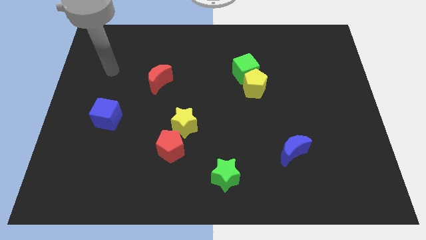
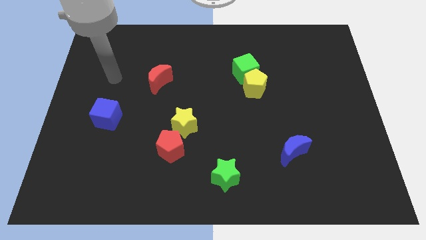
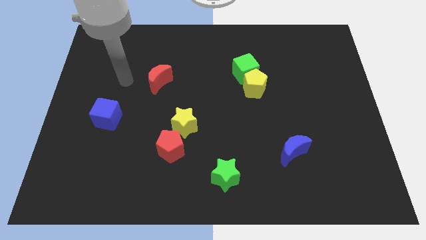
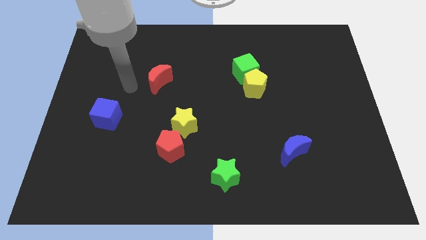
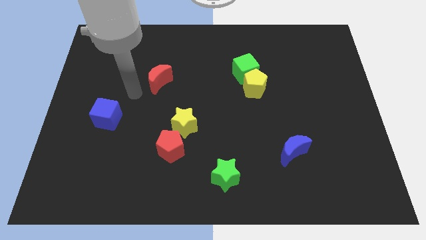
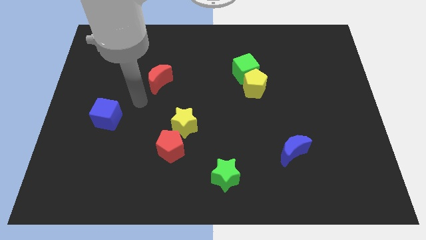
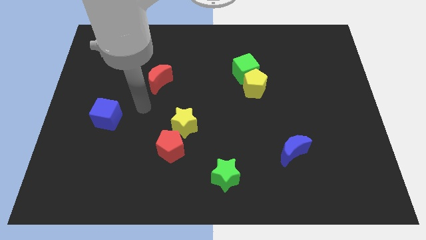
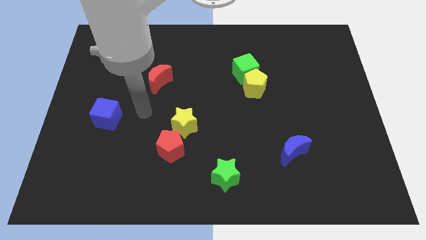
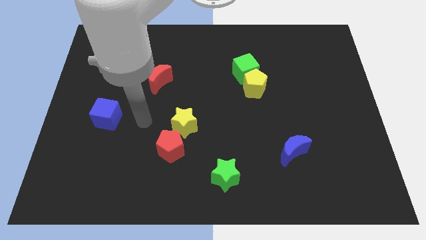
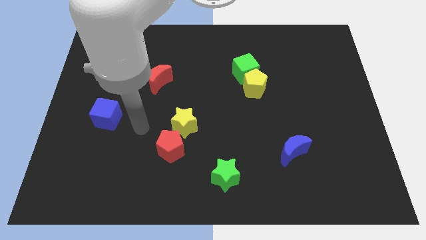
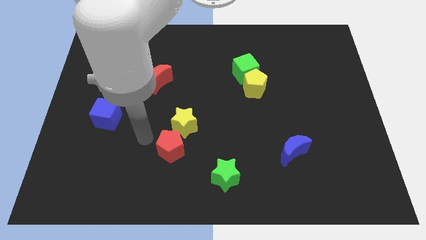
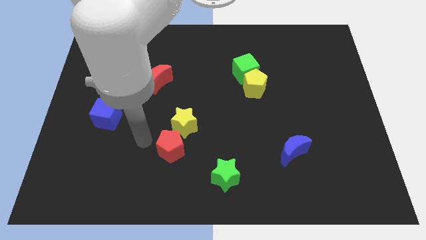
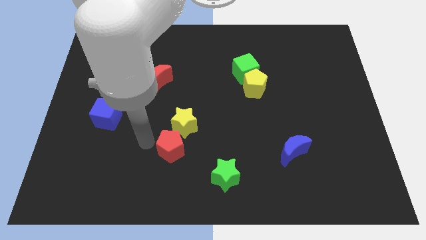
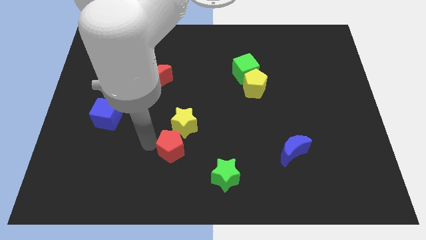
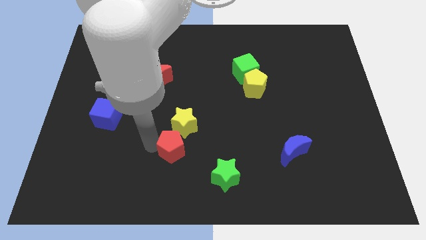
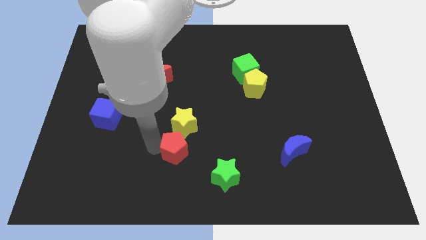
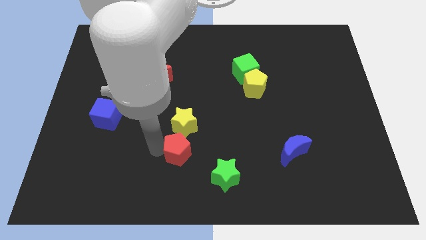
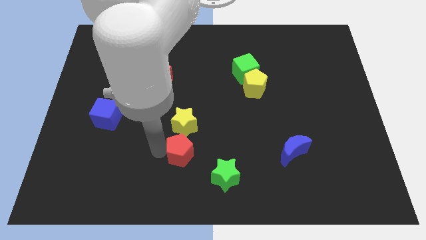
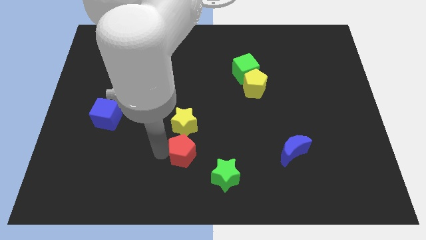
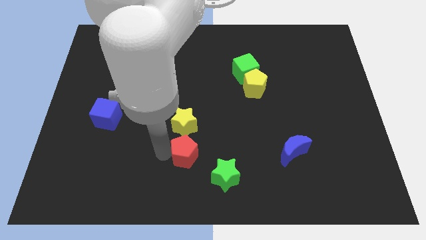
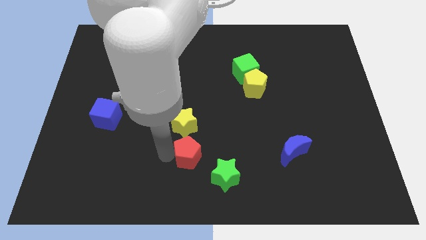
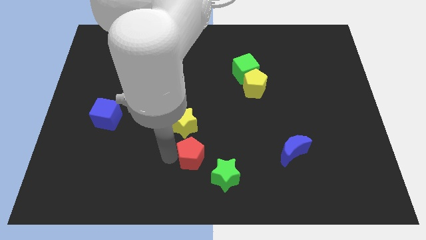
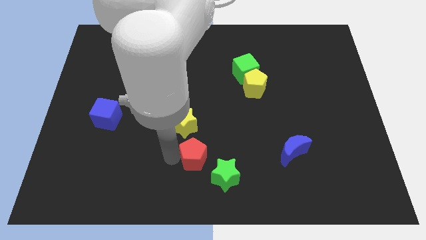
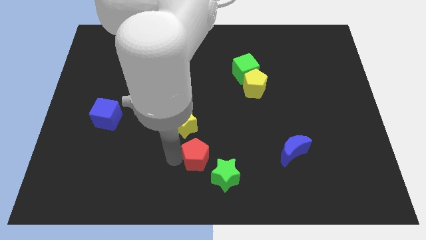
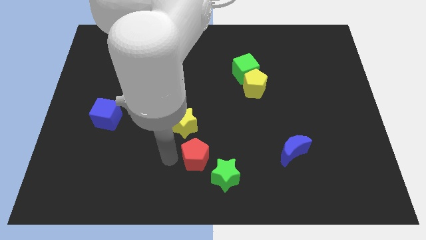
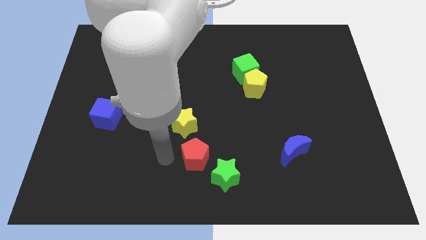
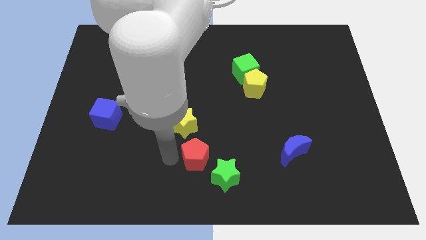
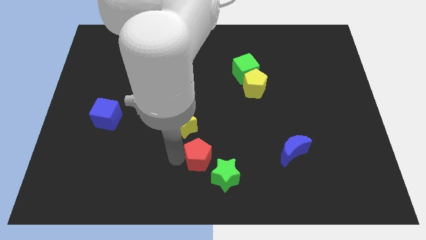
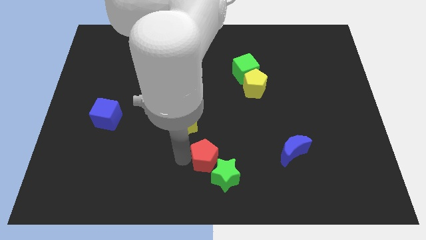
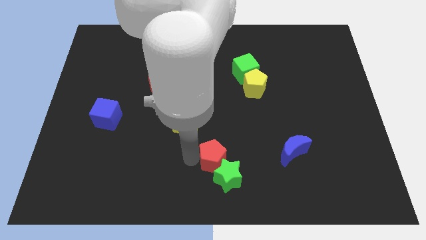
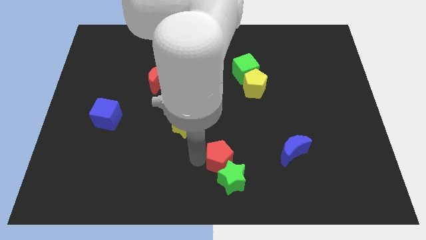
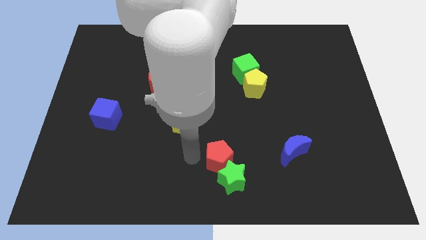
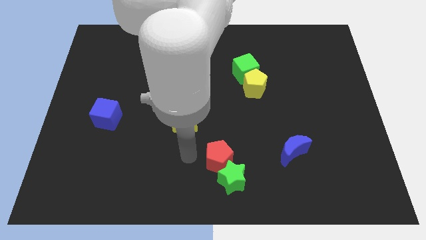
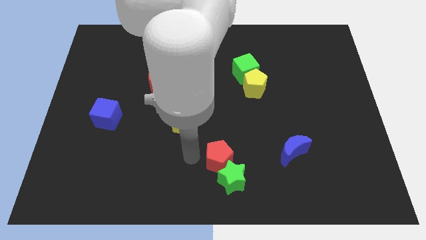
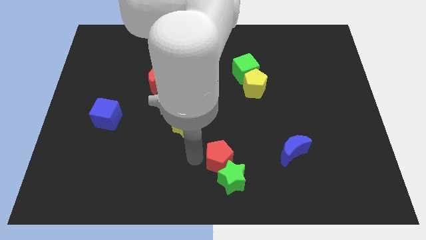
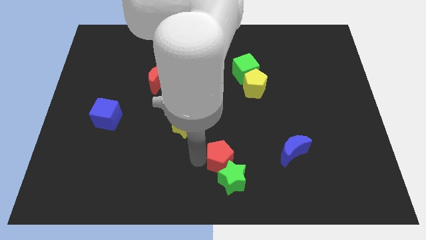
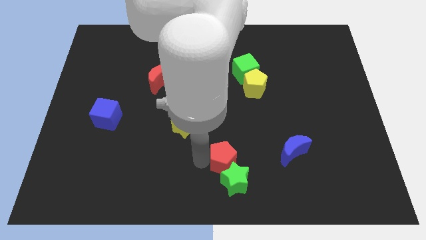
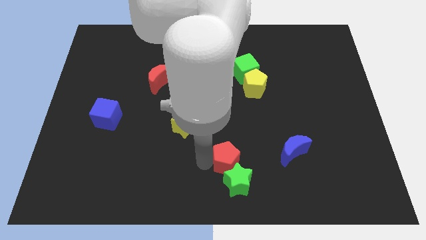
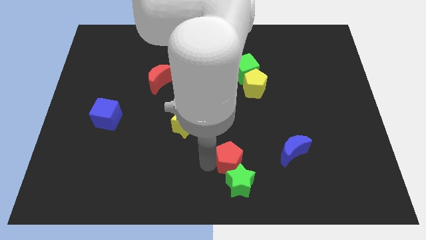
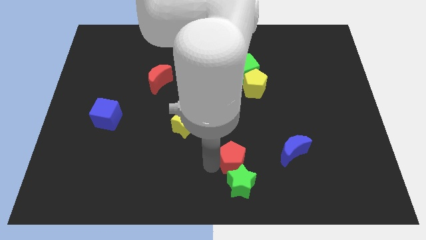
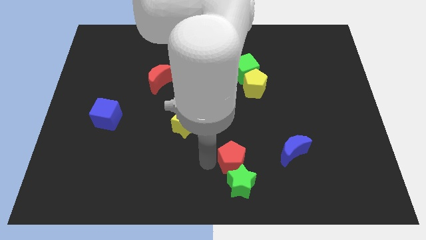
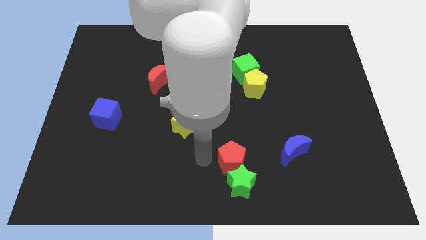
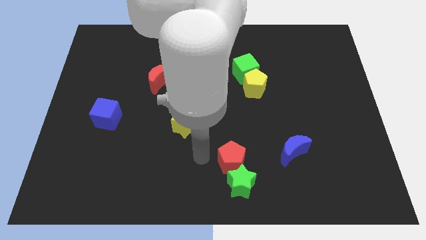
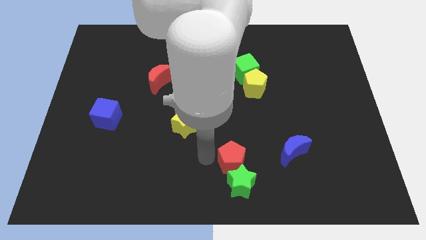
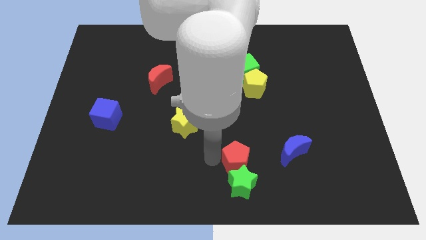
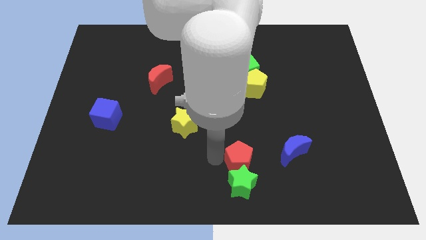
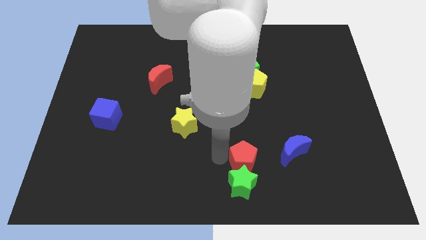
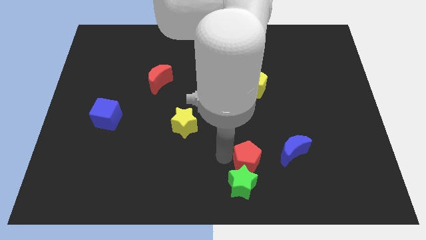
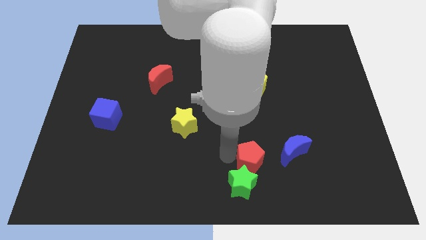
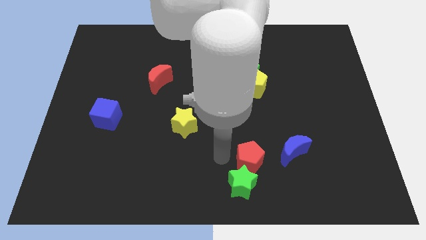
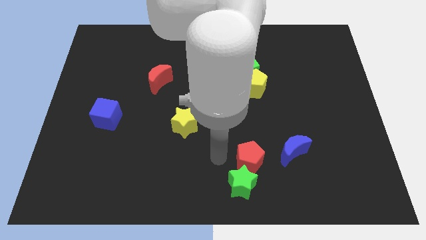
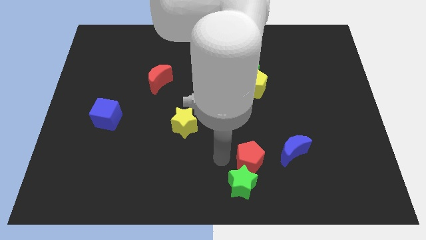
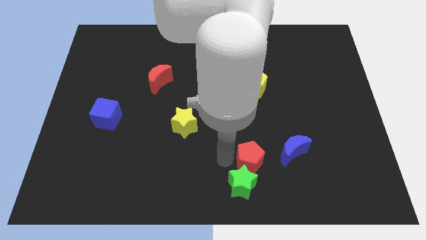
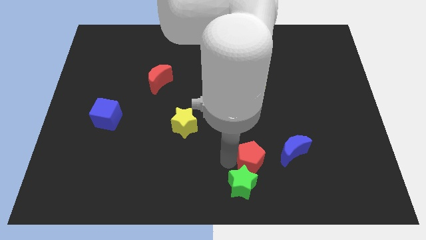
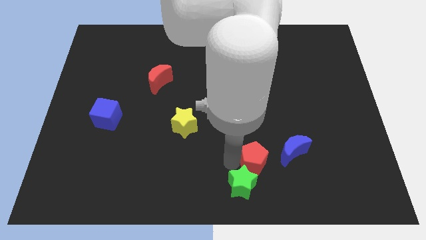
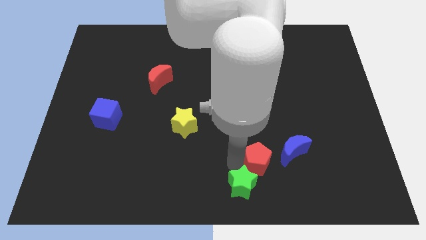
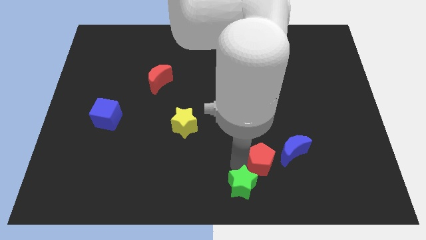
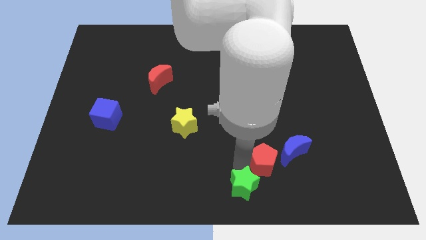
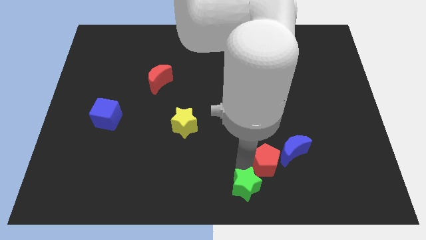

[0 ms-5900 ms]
slide the red pentagon to the right

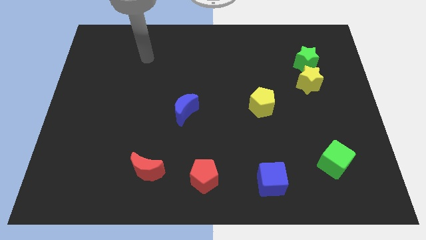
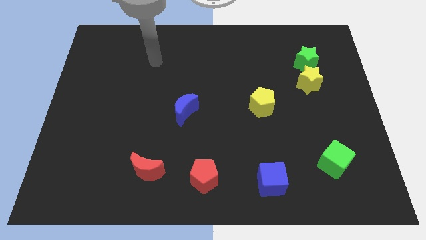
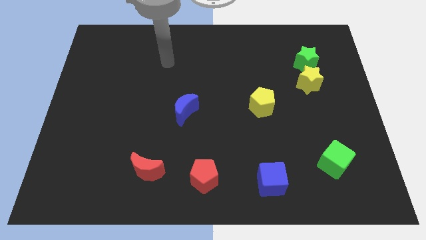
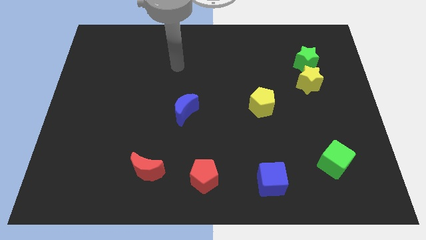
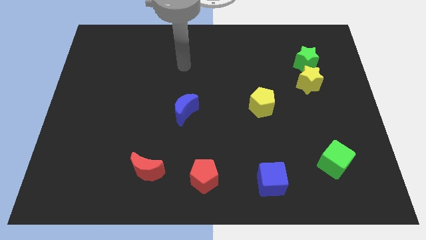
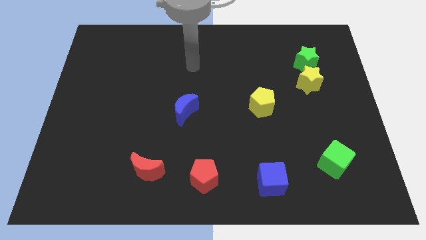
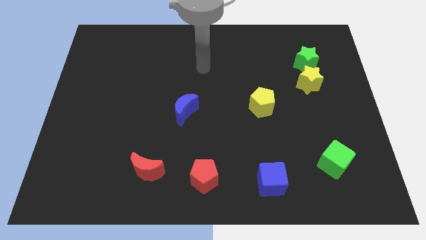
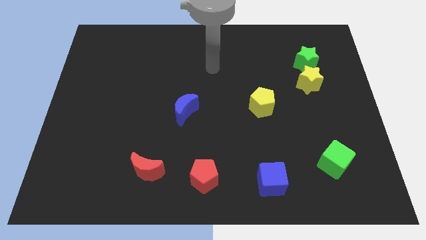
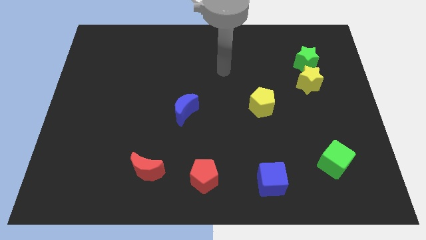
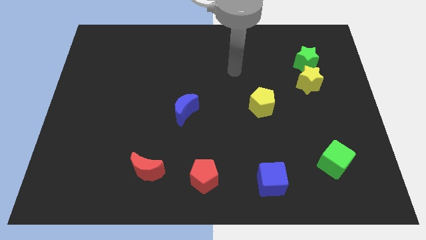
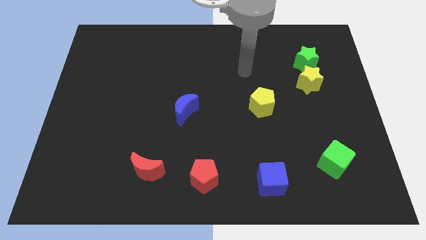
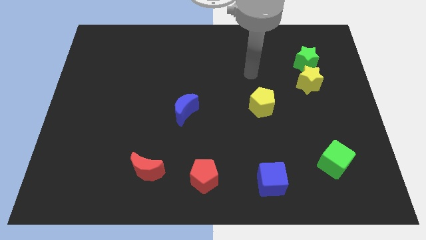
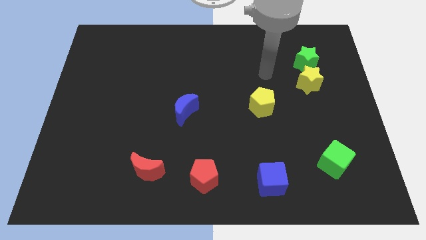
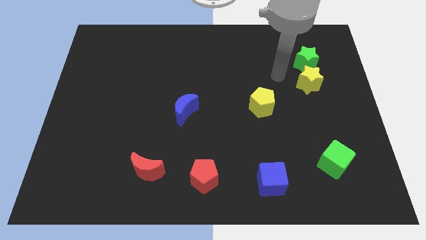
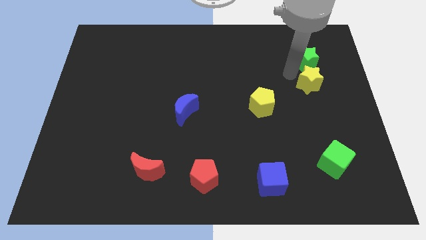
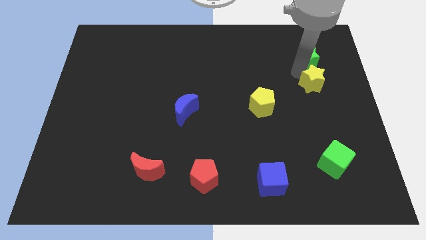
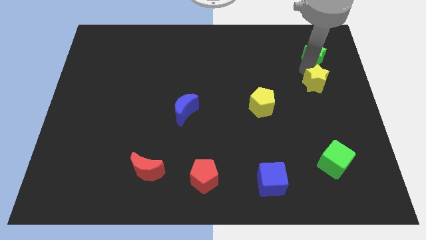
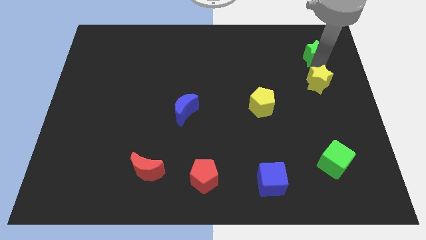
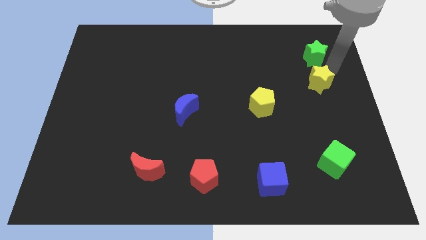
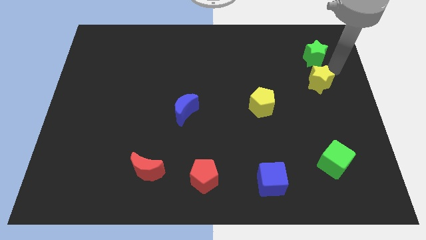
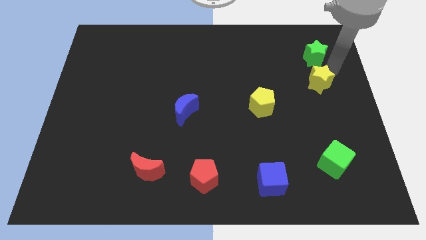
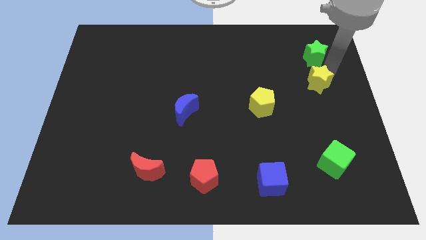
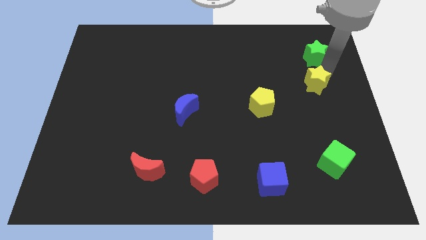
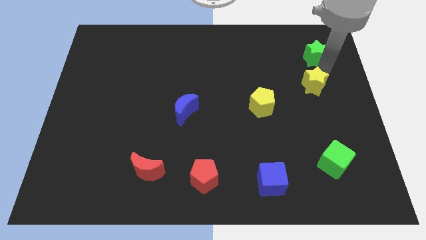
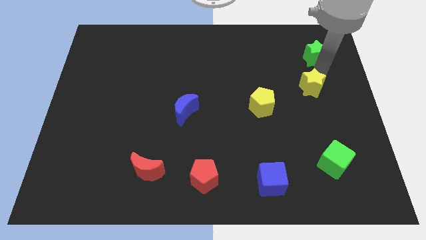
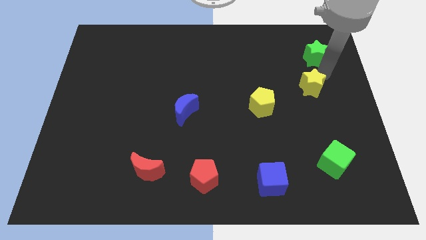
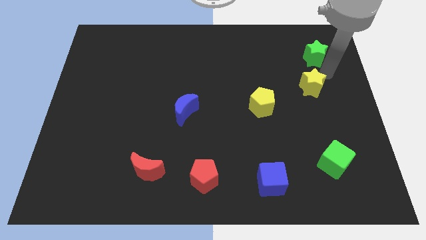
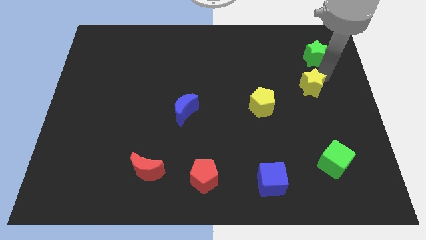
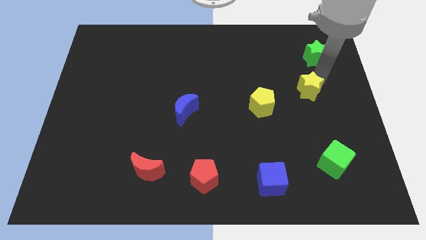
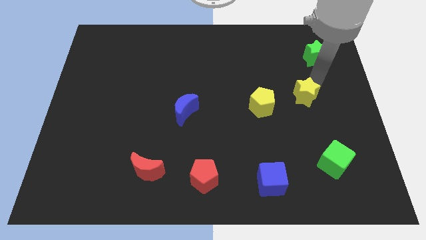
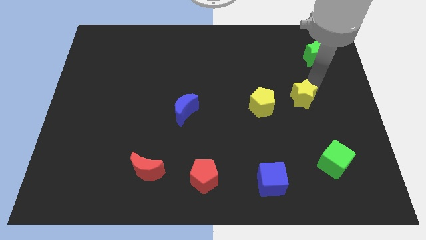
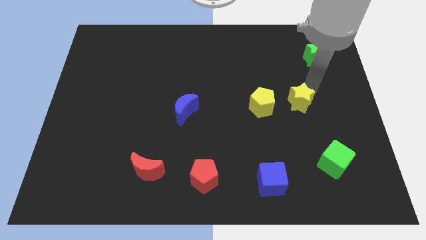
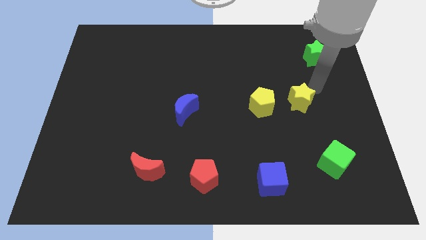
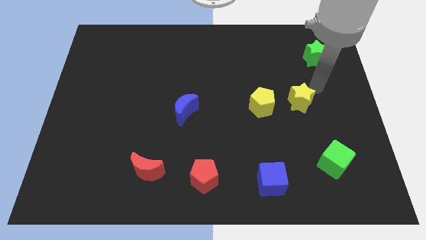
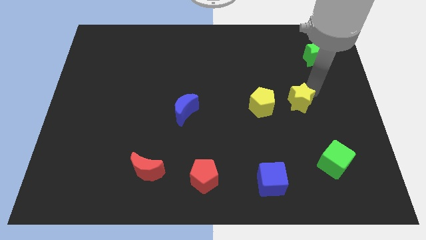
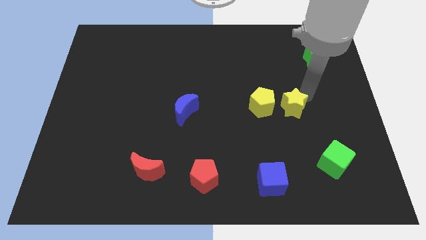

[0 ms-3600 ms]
move the yellow star down and left diagonally a little bit
